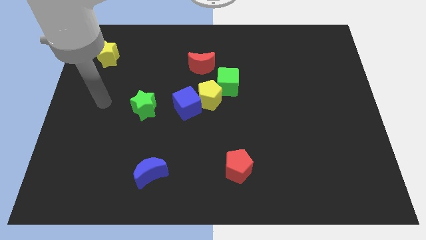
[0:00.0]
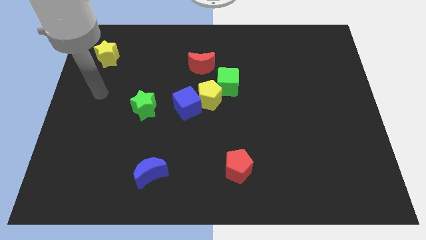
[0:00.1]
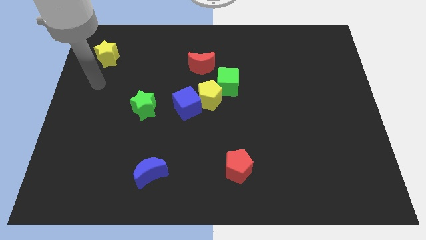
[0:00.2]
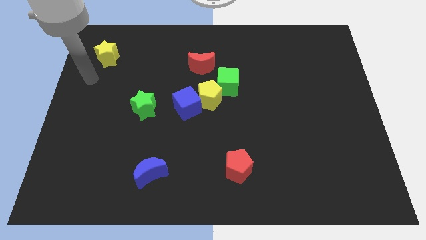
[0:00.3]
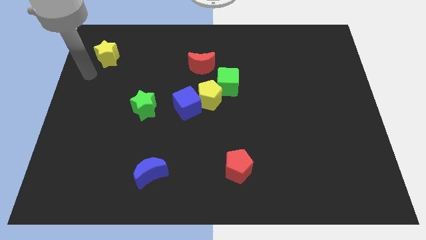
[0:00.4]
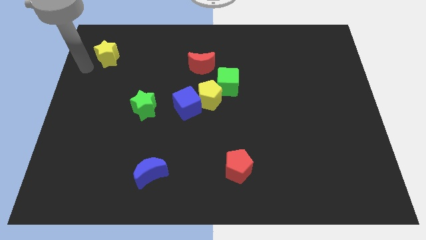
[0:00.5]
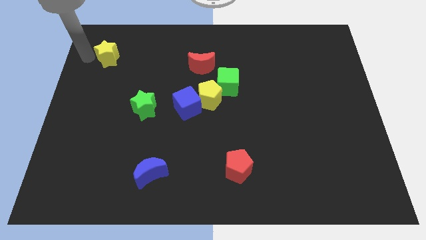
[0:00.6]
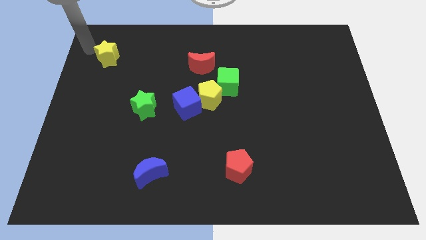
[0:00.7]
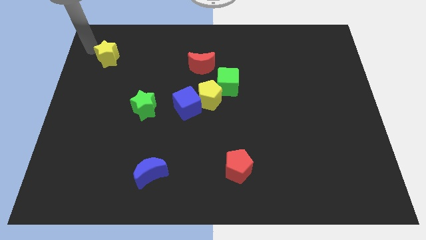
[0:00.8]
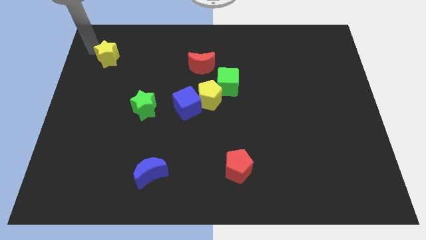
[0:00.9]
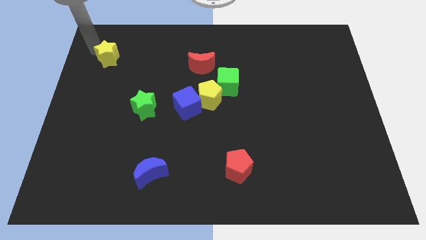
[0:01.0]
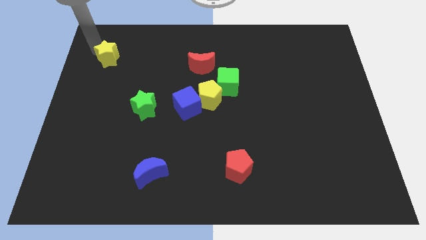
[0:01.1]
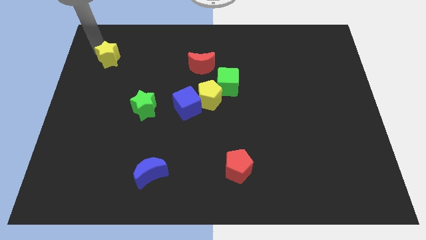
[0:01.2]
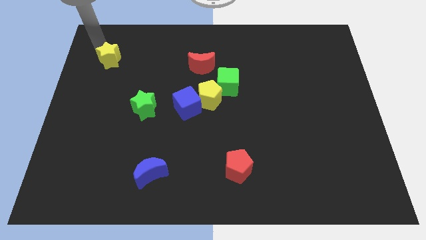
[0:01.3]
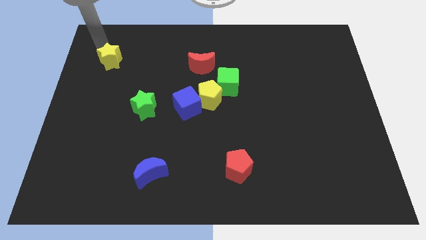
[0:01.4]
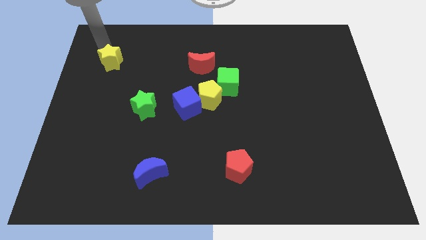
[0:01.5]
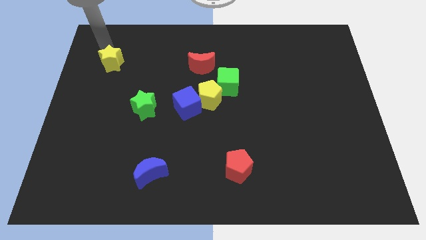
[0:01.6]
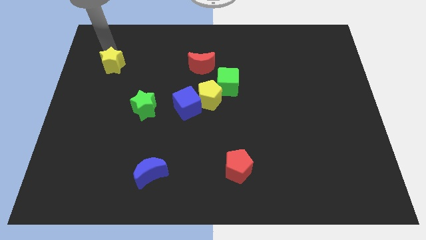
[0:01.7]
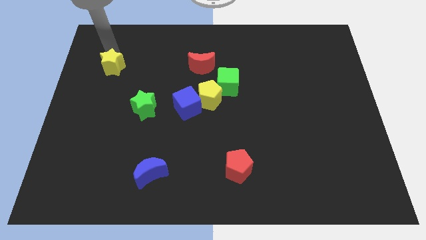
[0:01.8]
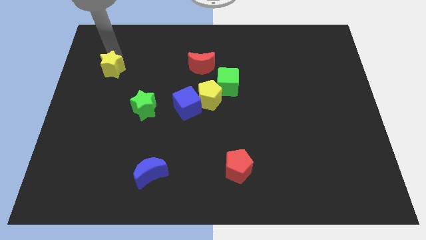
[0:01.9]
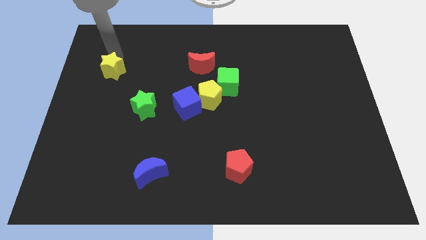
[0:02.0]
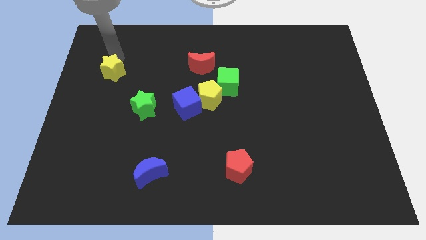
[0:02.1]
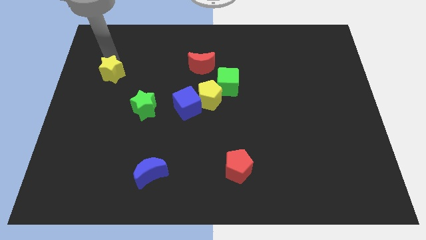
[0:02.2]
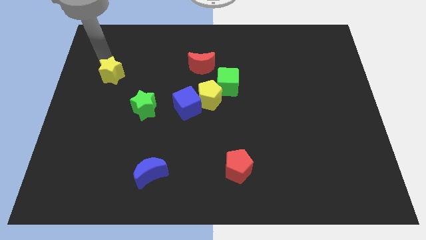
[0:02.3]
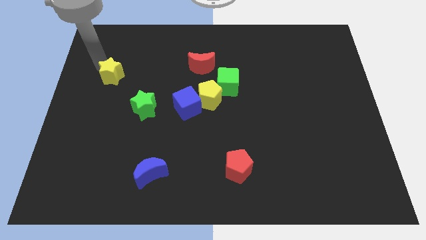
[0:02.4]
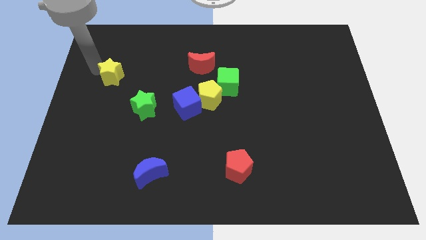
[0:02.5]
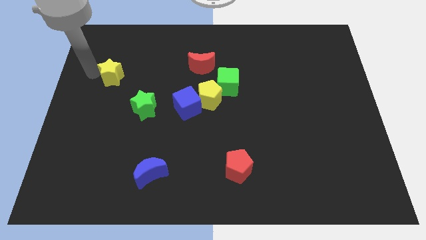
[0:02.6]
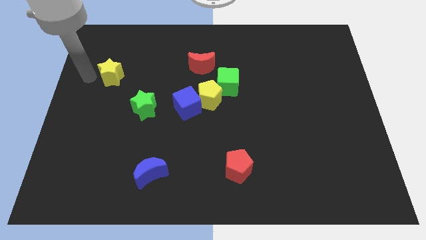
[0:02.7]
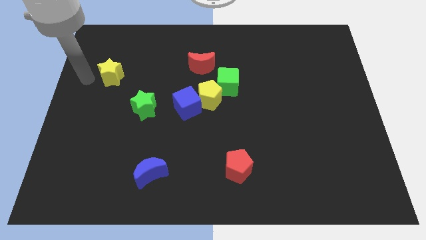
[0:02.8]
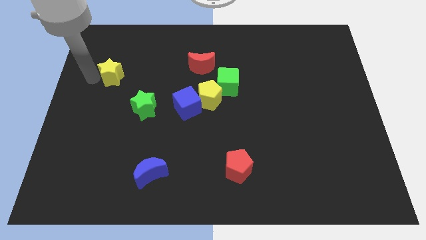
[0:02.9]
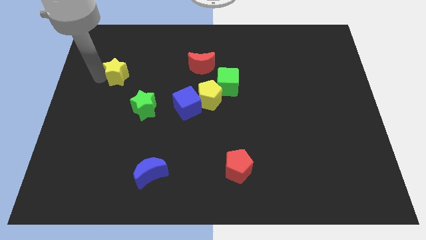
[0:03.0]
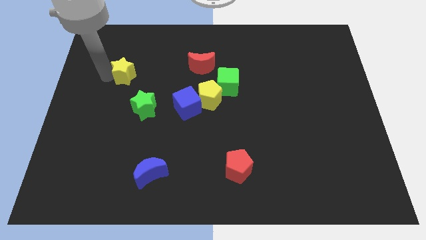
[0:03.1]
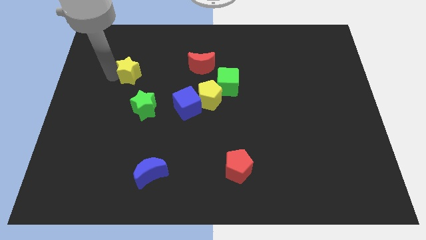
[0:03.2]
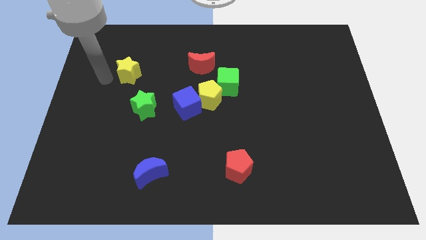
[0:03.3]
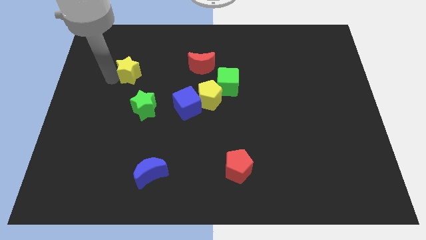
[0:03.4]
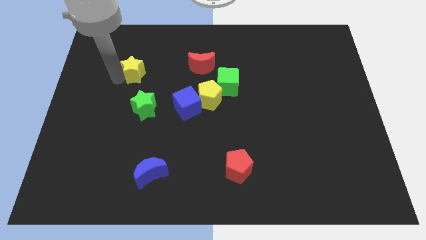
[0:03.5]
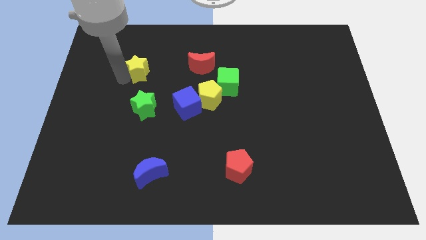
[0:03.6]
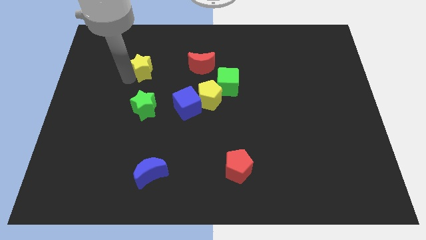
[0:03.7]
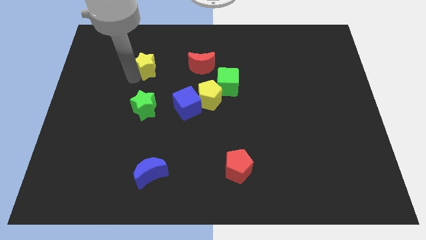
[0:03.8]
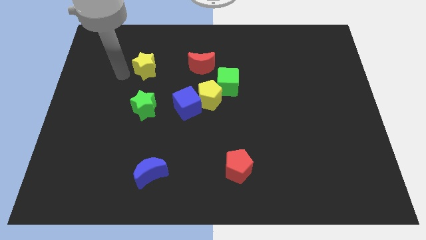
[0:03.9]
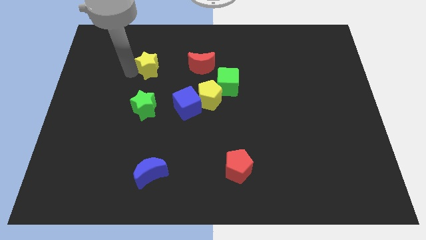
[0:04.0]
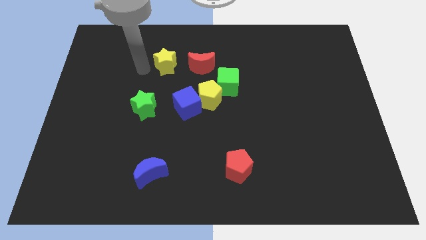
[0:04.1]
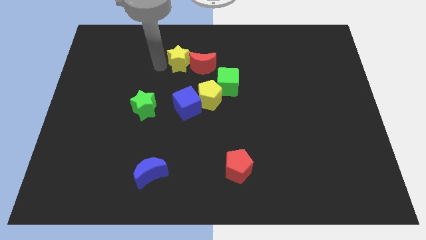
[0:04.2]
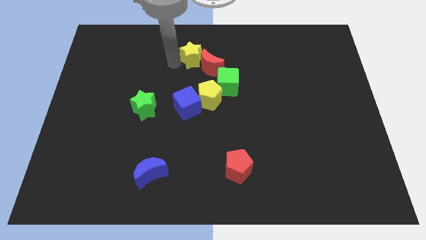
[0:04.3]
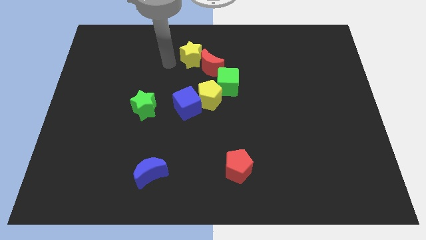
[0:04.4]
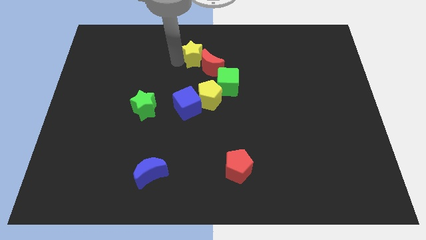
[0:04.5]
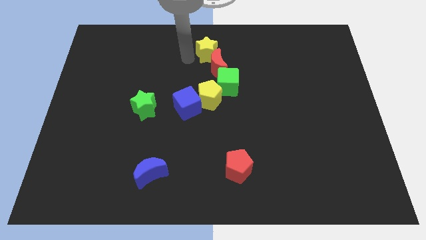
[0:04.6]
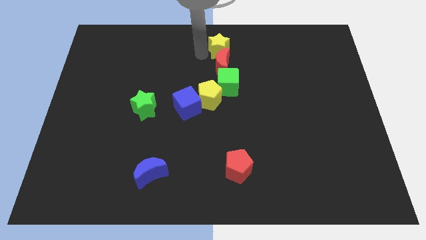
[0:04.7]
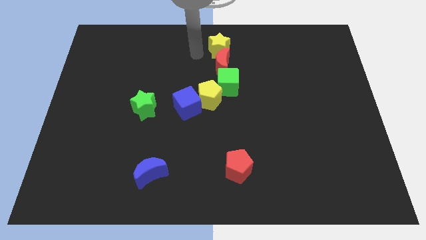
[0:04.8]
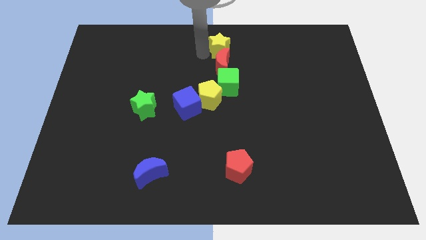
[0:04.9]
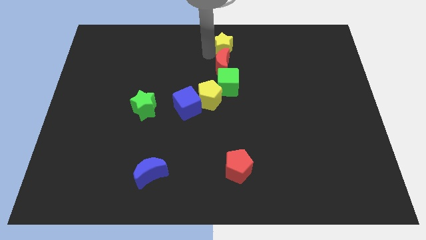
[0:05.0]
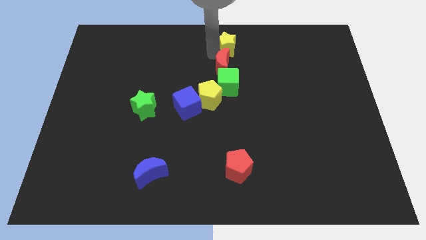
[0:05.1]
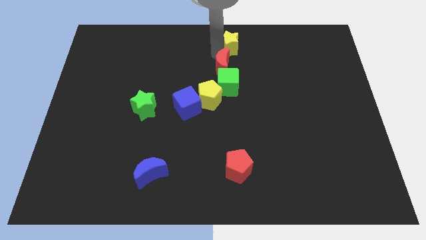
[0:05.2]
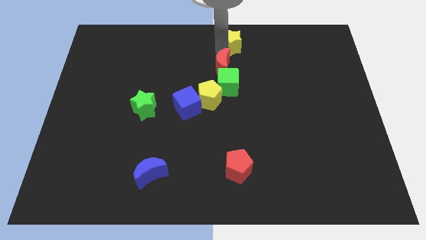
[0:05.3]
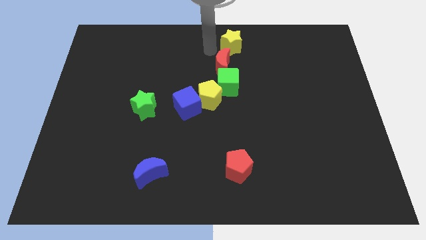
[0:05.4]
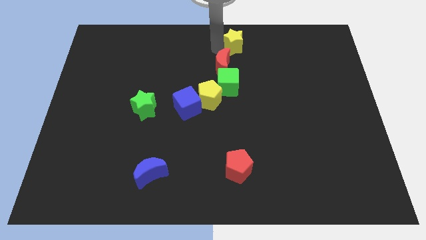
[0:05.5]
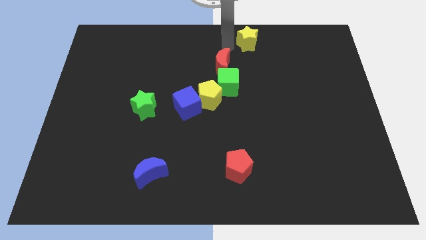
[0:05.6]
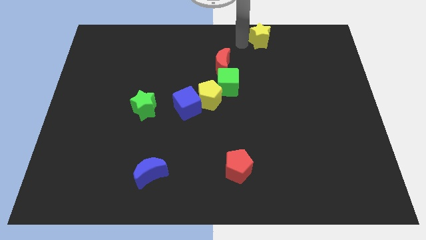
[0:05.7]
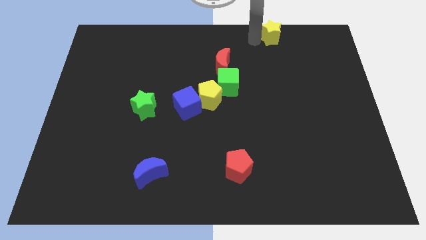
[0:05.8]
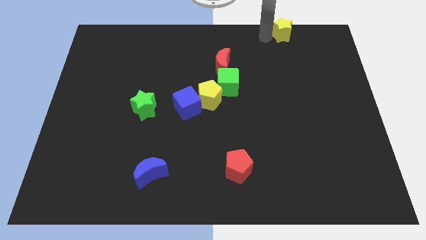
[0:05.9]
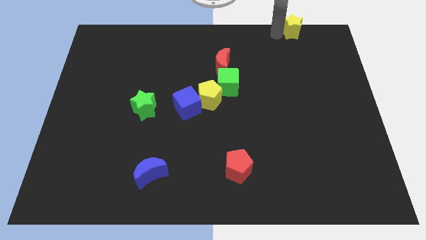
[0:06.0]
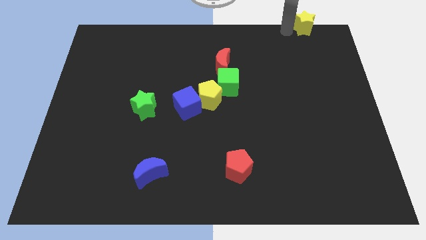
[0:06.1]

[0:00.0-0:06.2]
slide the yellow star to the upper right corner

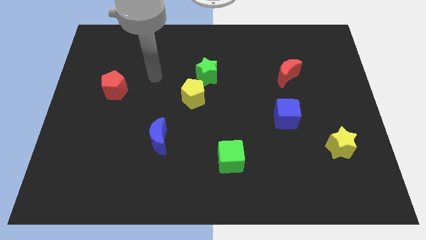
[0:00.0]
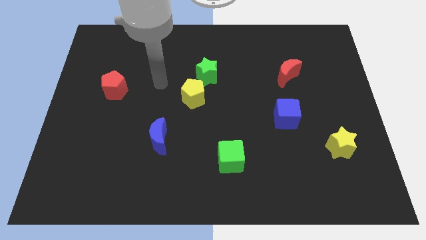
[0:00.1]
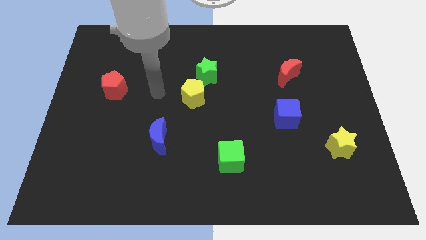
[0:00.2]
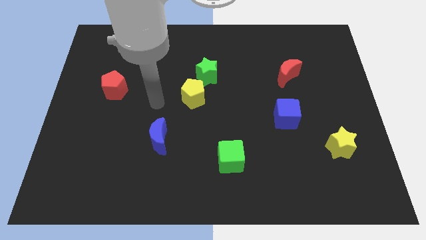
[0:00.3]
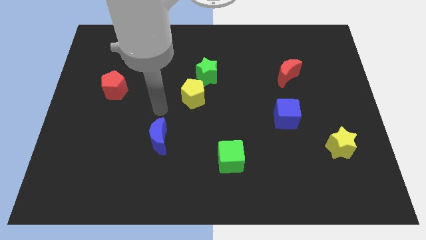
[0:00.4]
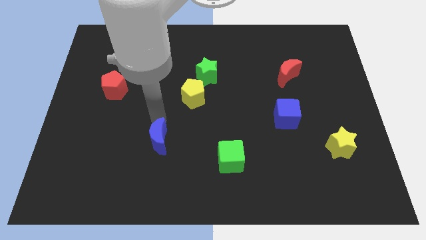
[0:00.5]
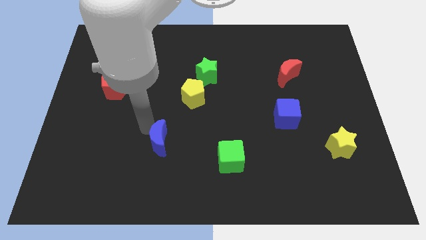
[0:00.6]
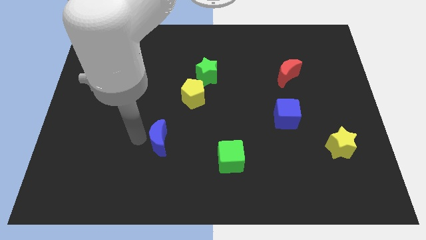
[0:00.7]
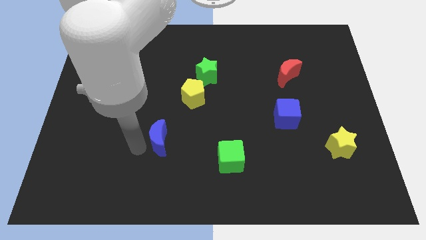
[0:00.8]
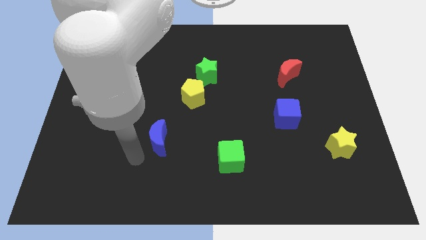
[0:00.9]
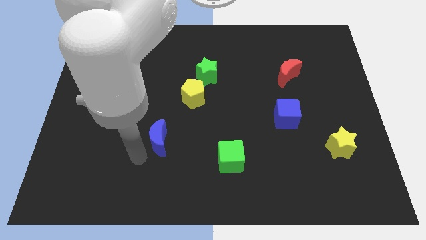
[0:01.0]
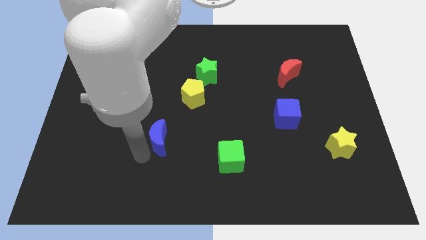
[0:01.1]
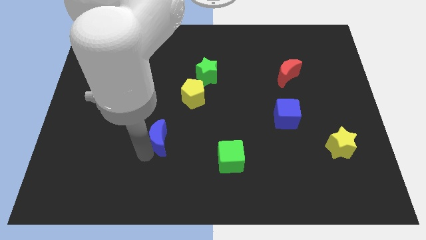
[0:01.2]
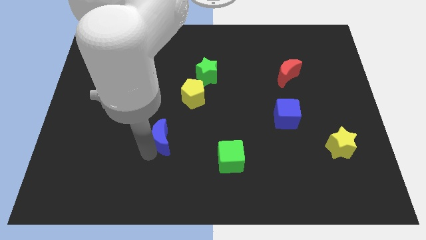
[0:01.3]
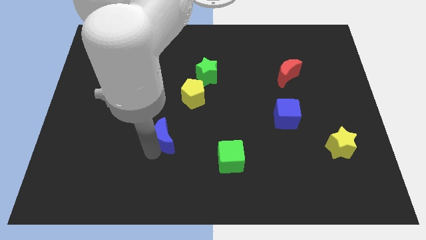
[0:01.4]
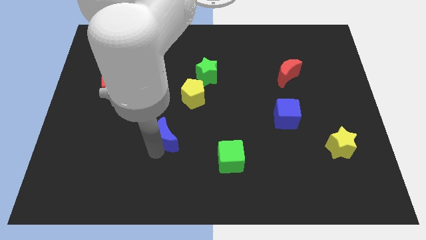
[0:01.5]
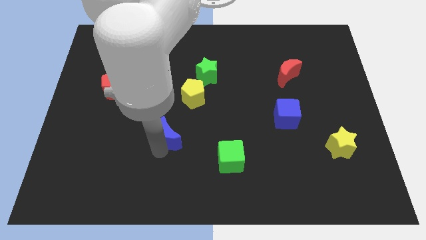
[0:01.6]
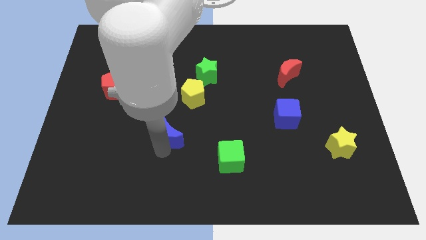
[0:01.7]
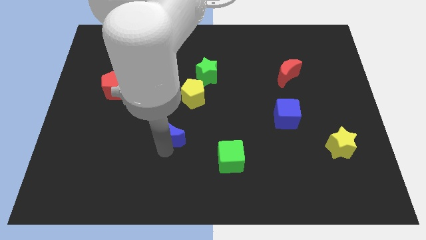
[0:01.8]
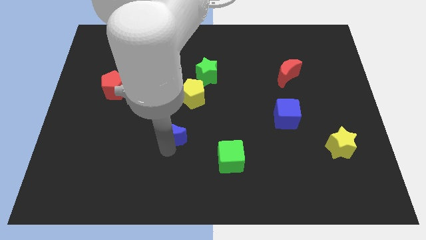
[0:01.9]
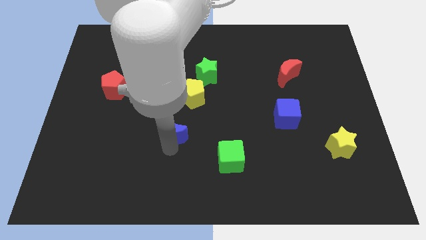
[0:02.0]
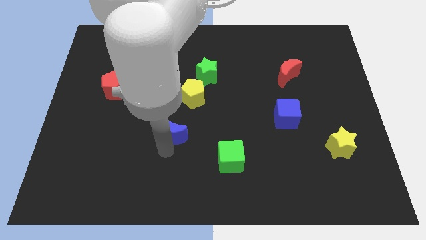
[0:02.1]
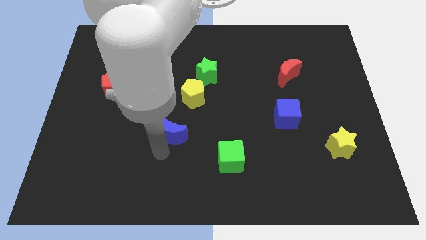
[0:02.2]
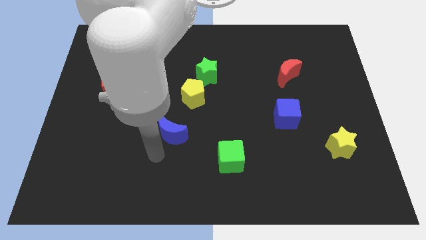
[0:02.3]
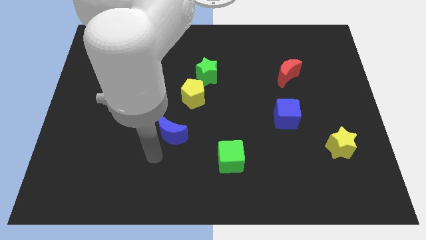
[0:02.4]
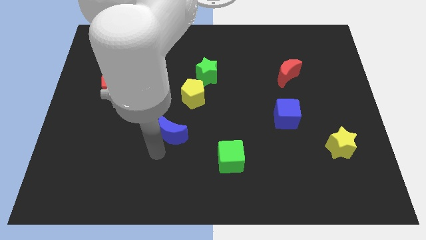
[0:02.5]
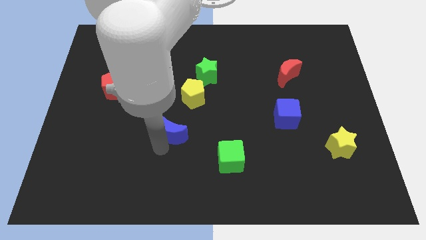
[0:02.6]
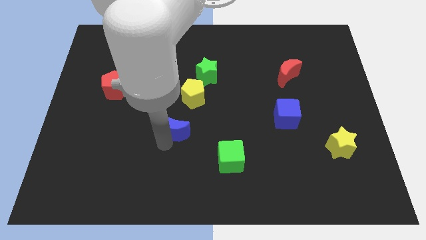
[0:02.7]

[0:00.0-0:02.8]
move the blue moon to the middle
